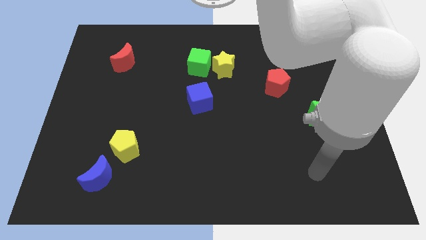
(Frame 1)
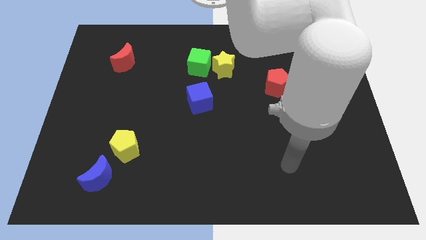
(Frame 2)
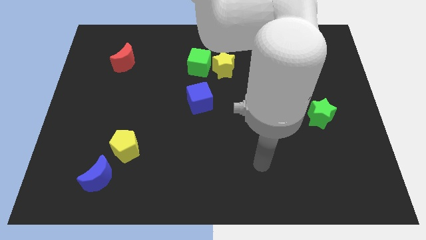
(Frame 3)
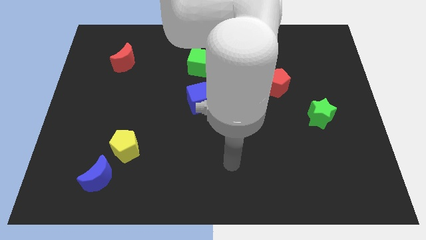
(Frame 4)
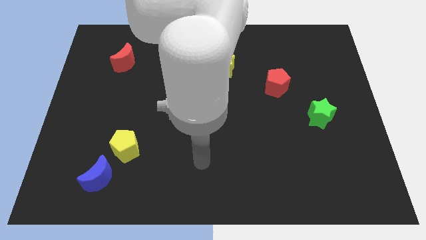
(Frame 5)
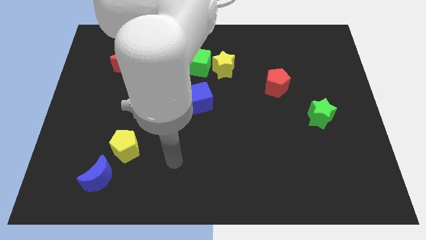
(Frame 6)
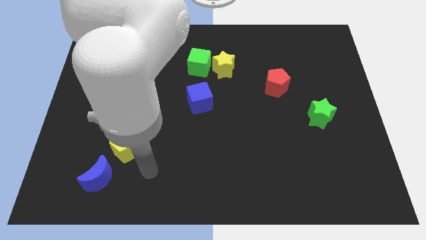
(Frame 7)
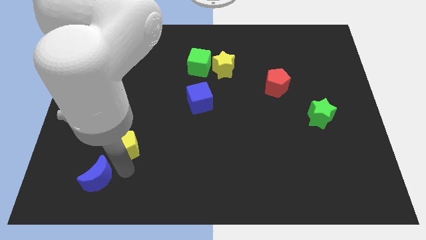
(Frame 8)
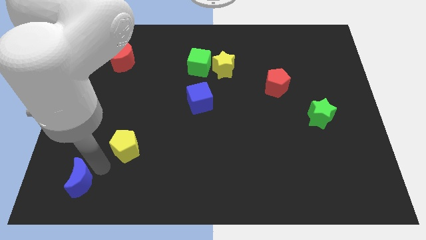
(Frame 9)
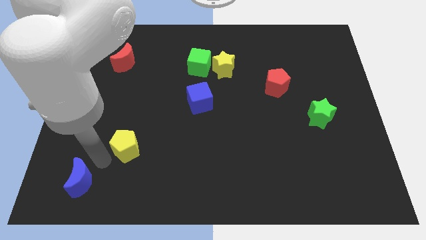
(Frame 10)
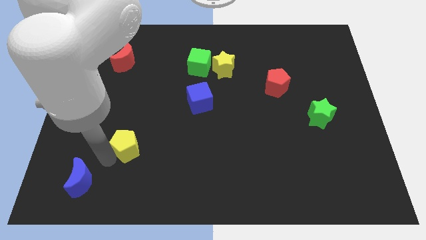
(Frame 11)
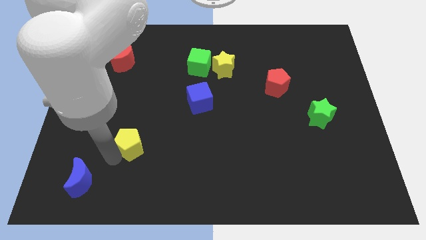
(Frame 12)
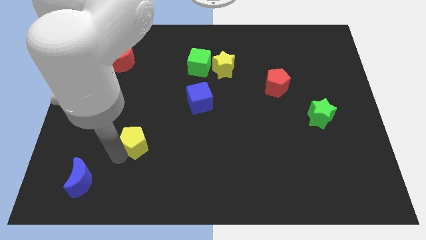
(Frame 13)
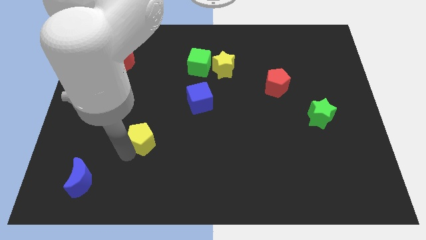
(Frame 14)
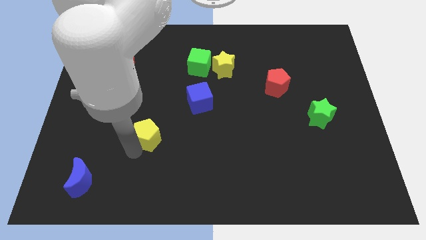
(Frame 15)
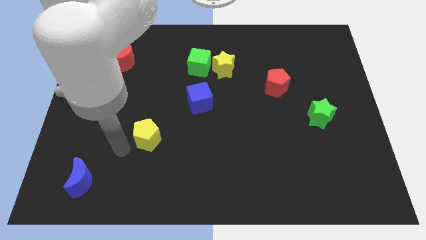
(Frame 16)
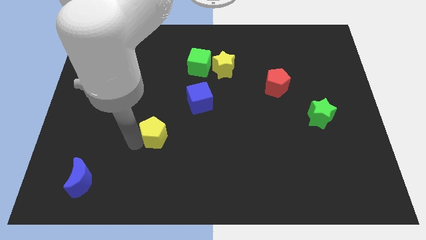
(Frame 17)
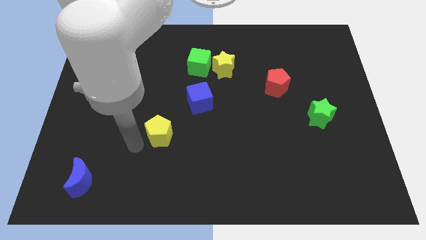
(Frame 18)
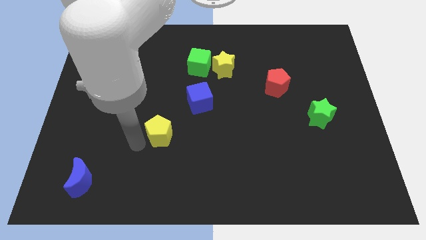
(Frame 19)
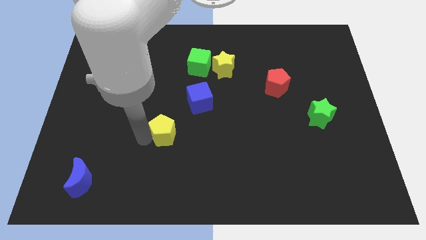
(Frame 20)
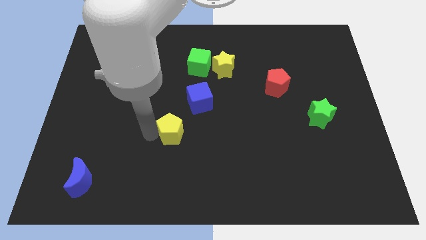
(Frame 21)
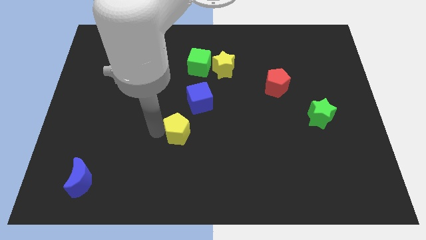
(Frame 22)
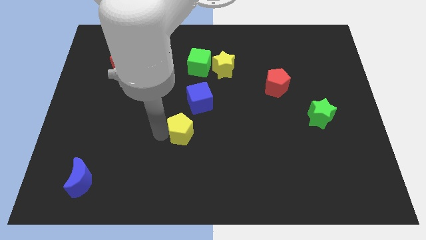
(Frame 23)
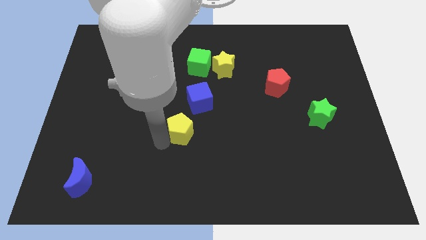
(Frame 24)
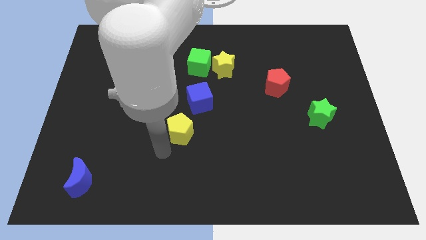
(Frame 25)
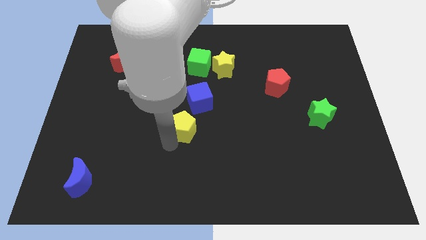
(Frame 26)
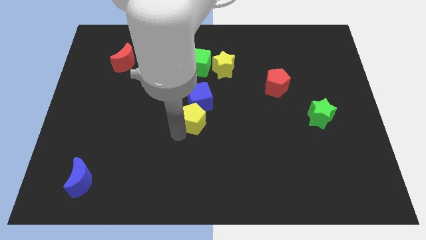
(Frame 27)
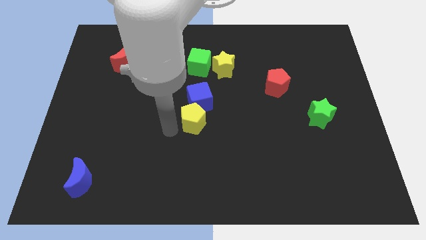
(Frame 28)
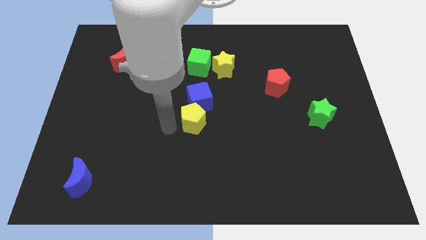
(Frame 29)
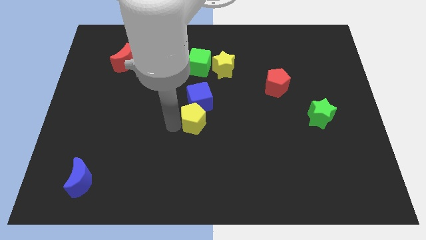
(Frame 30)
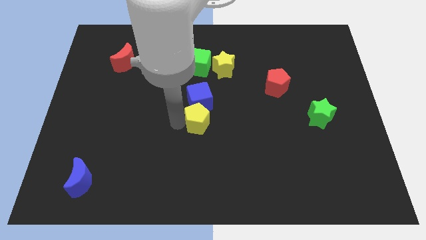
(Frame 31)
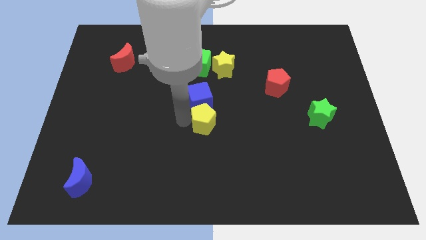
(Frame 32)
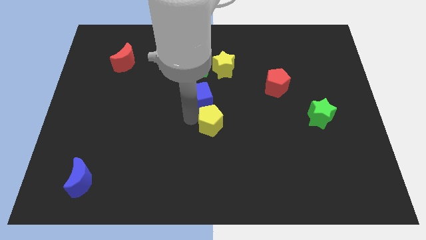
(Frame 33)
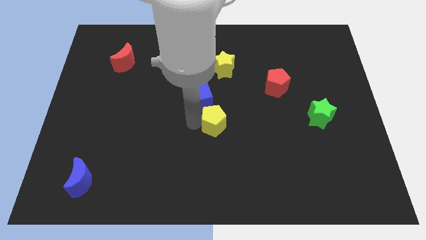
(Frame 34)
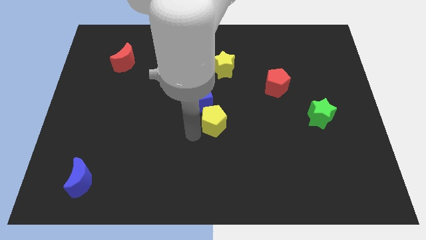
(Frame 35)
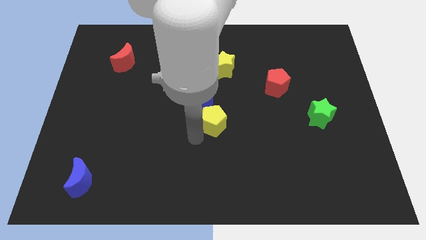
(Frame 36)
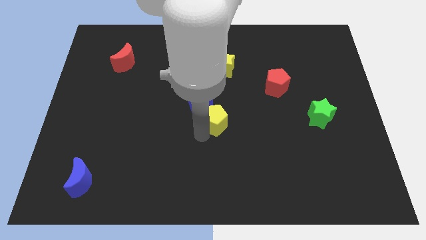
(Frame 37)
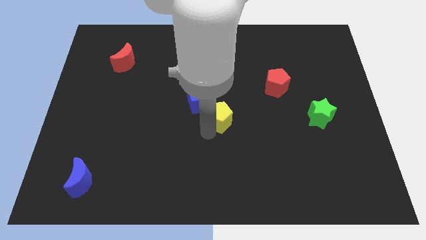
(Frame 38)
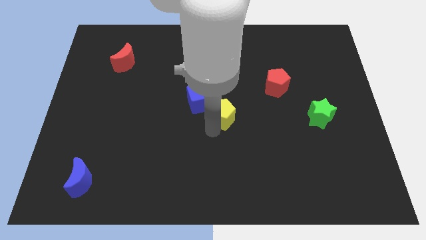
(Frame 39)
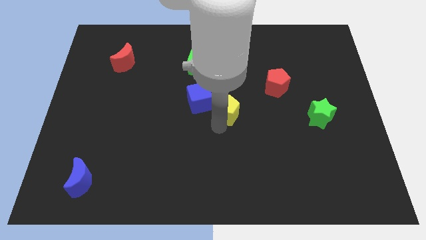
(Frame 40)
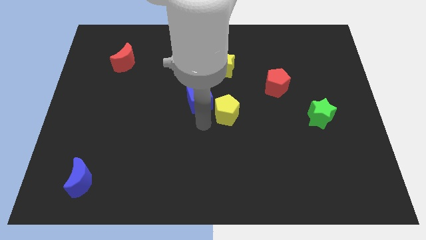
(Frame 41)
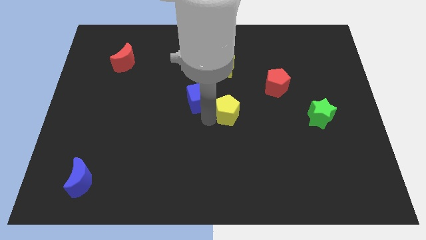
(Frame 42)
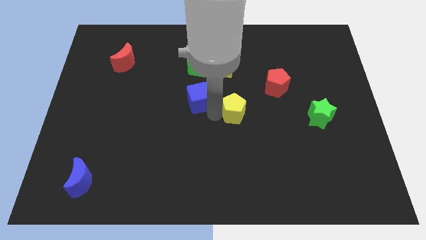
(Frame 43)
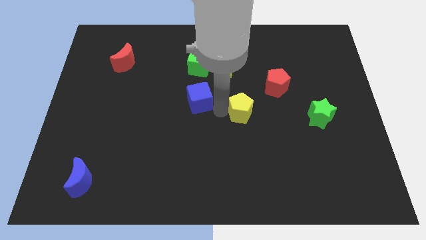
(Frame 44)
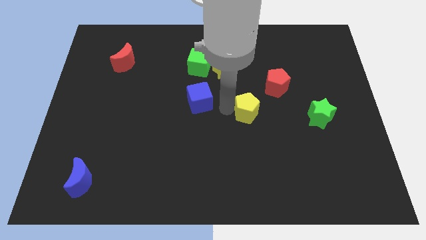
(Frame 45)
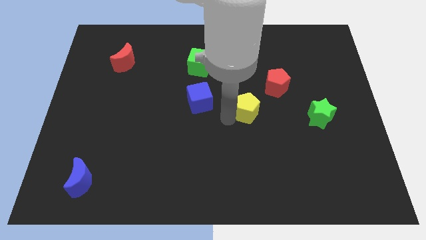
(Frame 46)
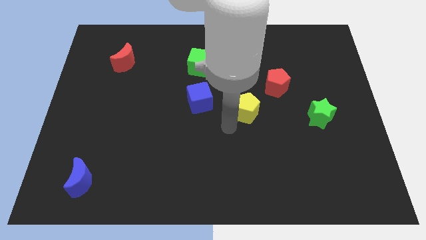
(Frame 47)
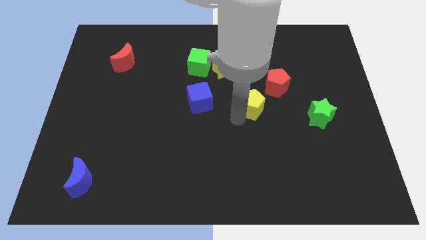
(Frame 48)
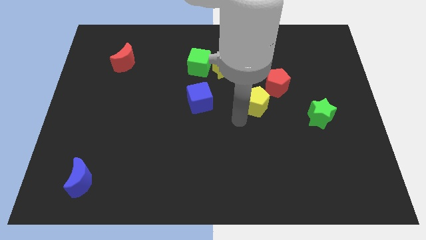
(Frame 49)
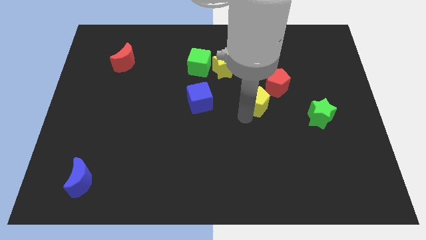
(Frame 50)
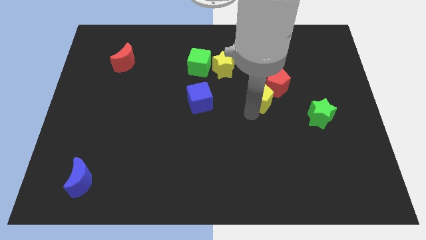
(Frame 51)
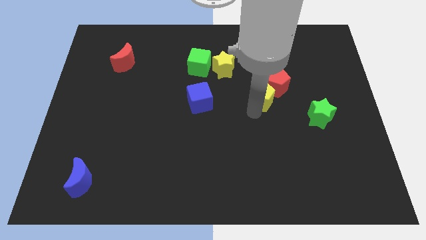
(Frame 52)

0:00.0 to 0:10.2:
slide the yellow pentagon close to the red pentagon

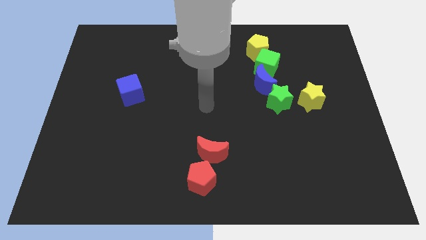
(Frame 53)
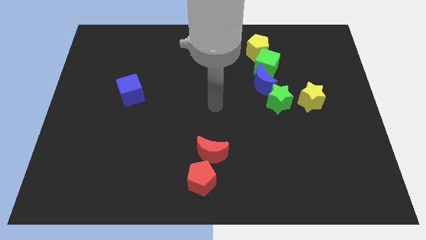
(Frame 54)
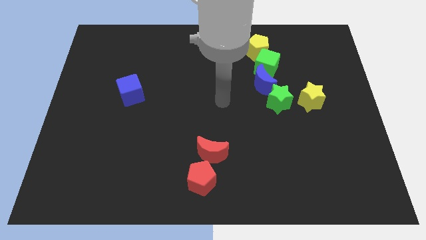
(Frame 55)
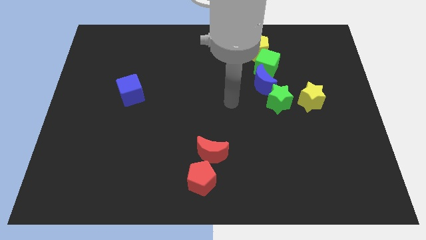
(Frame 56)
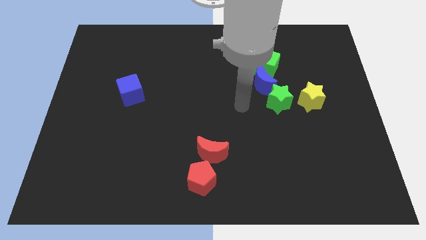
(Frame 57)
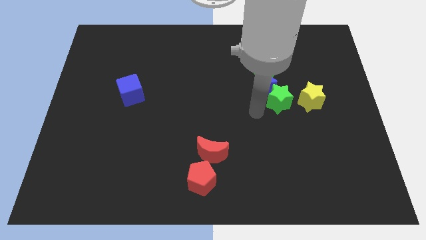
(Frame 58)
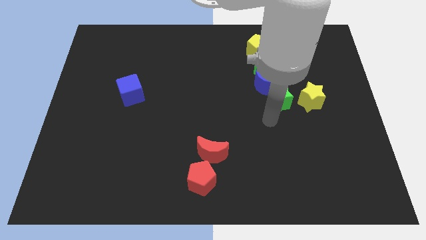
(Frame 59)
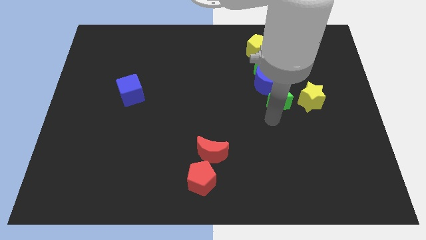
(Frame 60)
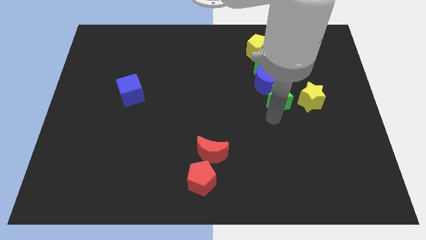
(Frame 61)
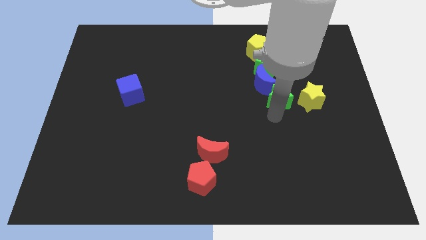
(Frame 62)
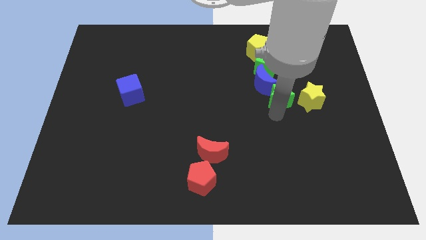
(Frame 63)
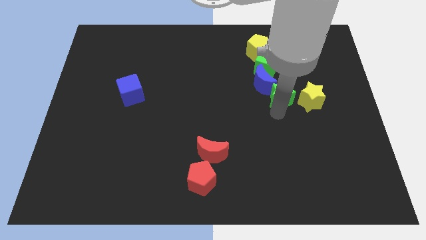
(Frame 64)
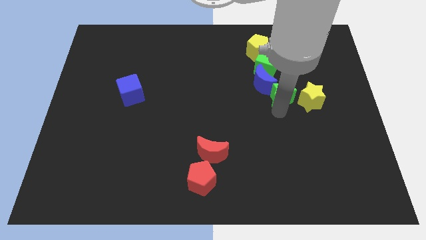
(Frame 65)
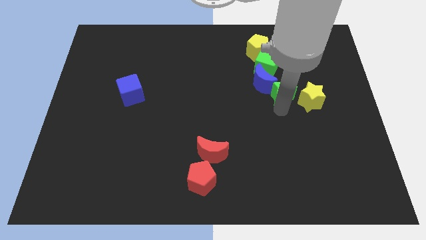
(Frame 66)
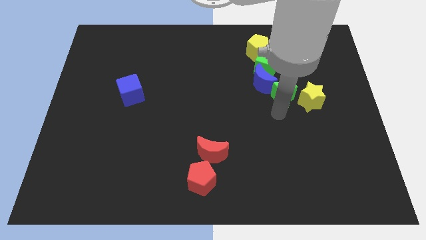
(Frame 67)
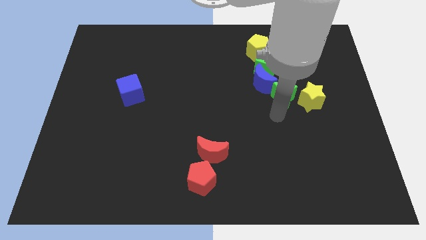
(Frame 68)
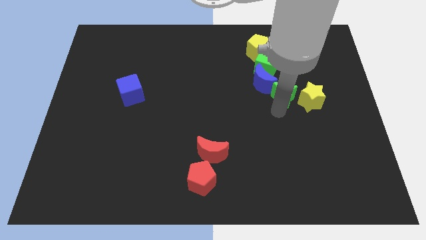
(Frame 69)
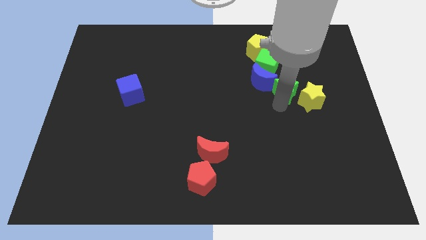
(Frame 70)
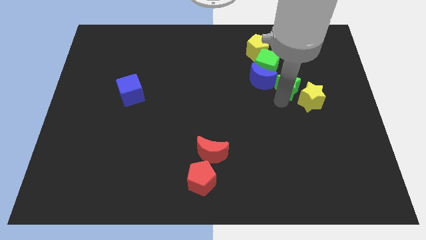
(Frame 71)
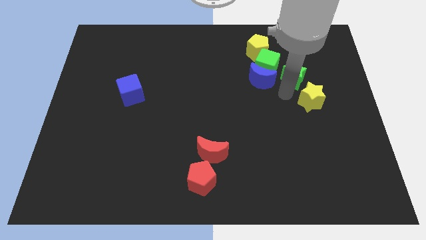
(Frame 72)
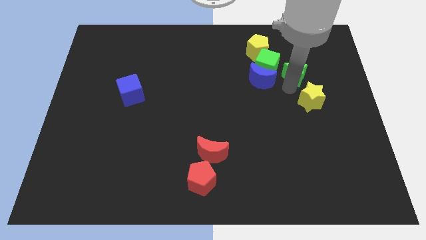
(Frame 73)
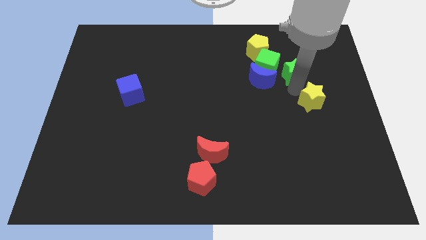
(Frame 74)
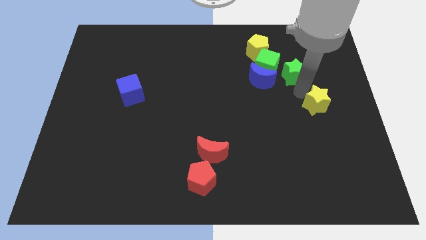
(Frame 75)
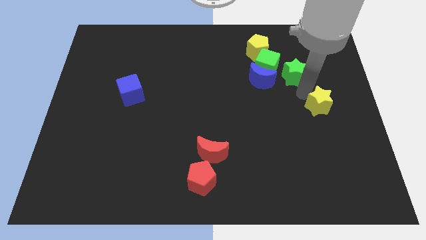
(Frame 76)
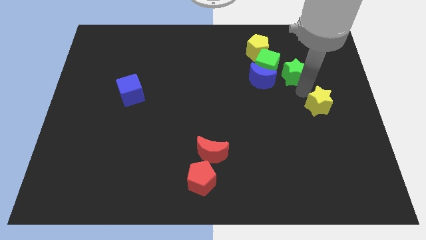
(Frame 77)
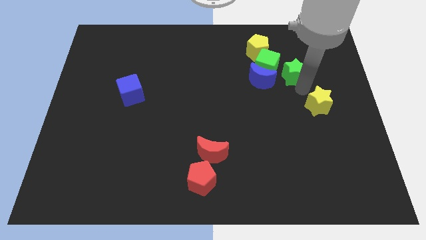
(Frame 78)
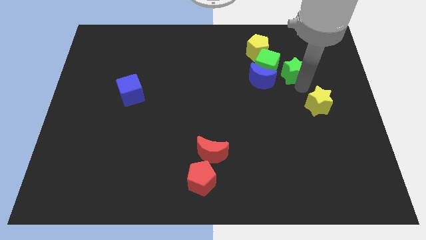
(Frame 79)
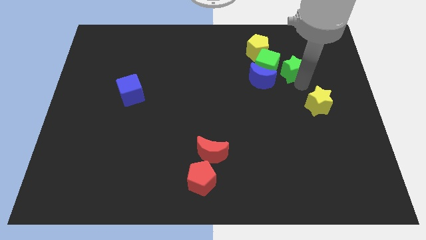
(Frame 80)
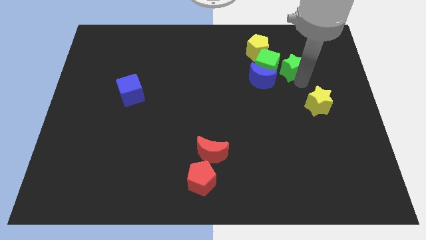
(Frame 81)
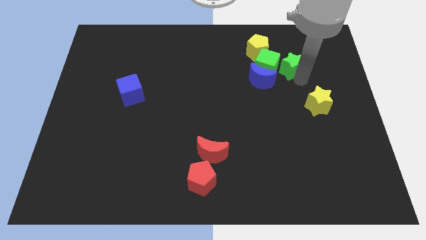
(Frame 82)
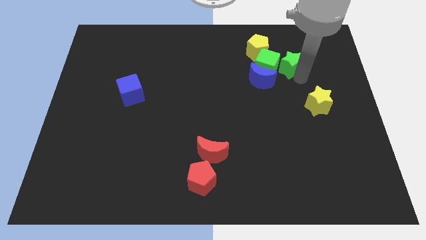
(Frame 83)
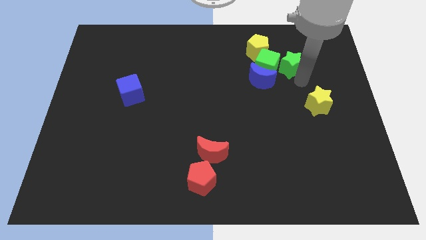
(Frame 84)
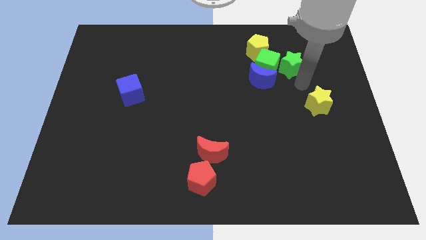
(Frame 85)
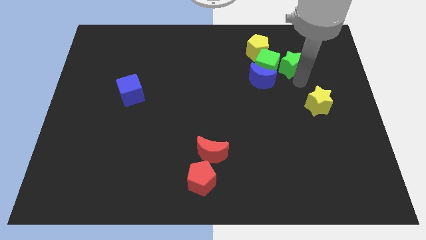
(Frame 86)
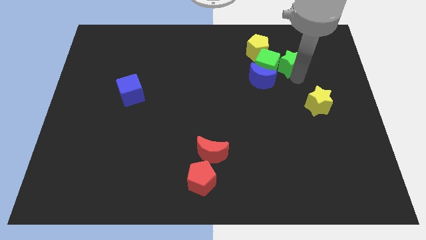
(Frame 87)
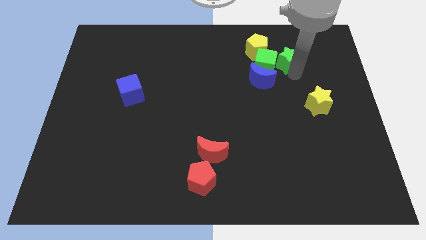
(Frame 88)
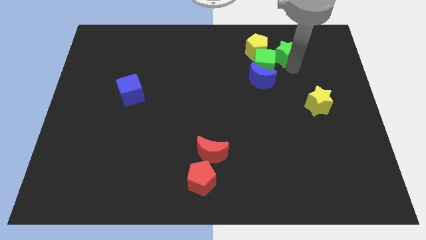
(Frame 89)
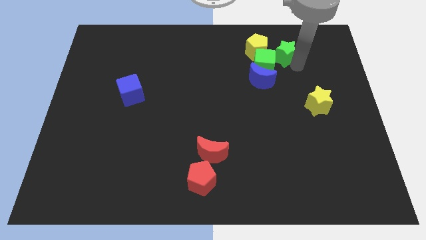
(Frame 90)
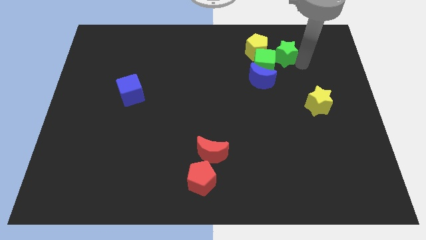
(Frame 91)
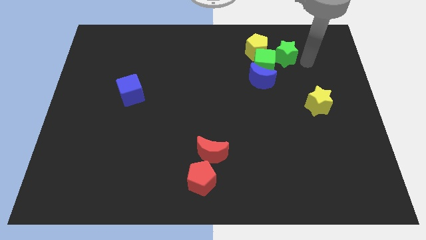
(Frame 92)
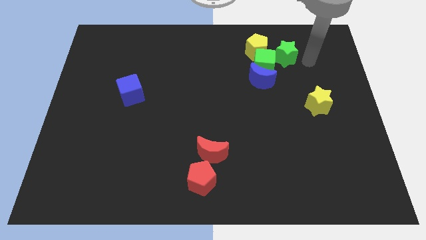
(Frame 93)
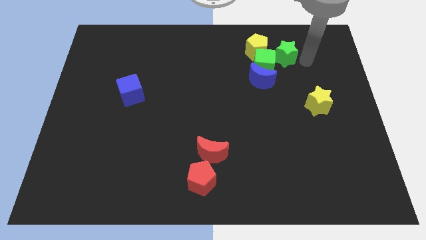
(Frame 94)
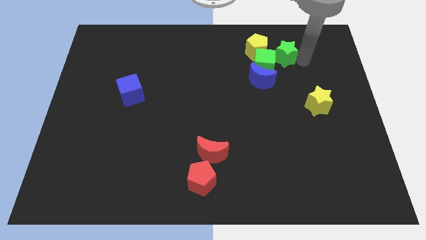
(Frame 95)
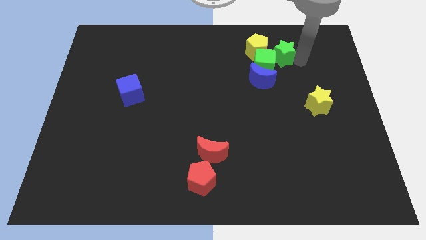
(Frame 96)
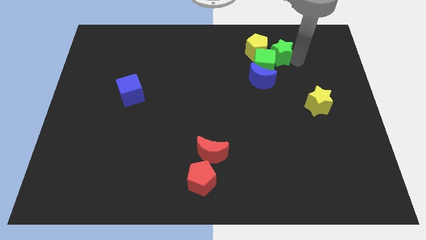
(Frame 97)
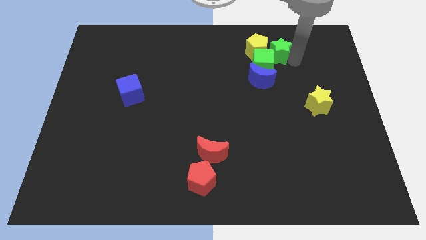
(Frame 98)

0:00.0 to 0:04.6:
push the green star close to the yellow pentagon
